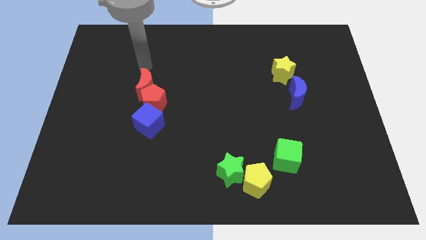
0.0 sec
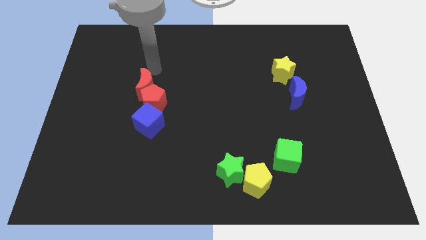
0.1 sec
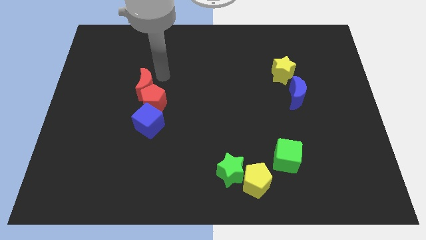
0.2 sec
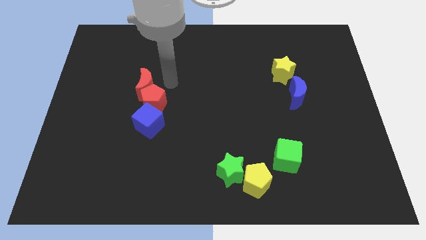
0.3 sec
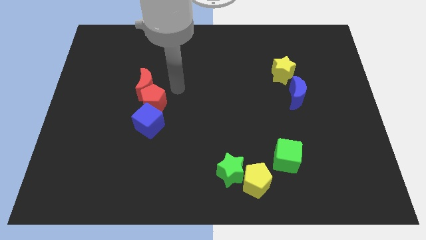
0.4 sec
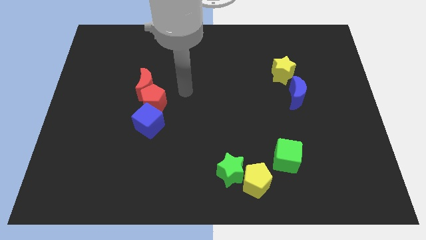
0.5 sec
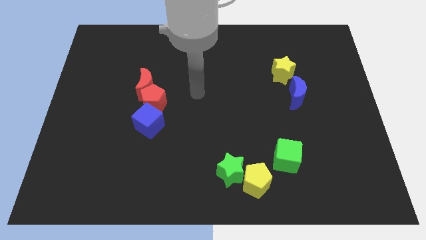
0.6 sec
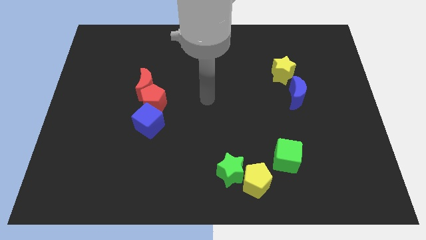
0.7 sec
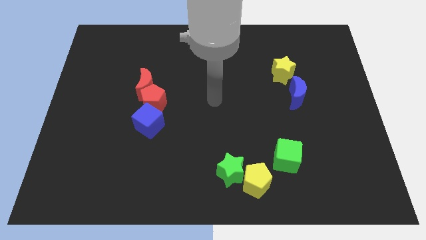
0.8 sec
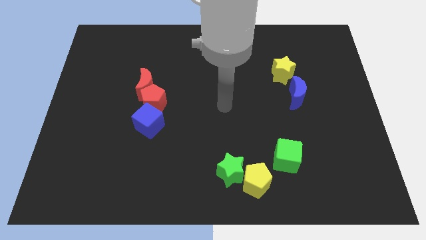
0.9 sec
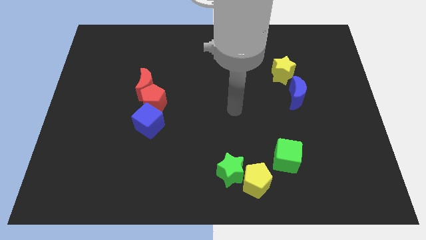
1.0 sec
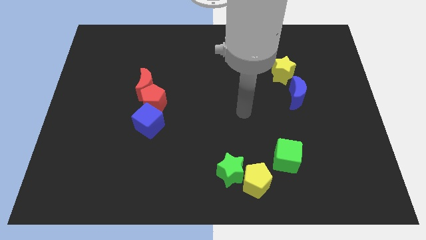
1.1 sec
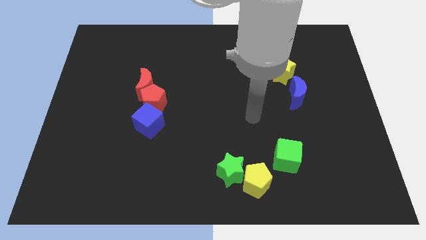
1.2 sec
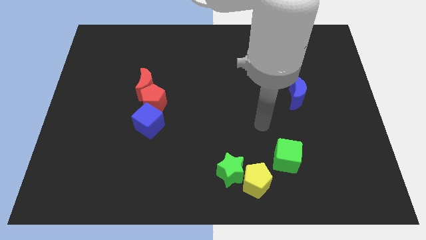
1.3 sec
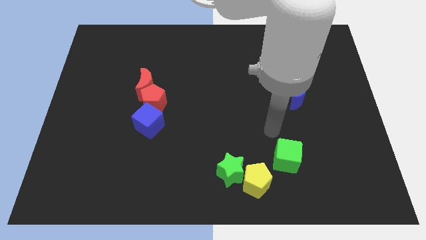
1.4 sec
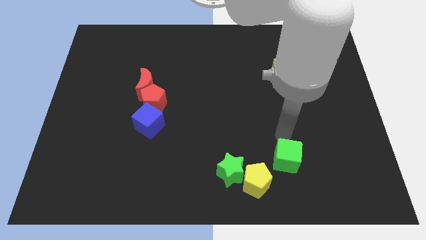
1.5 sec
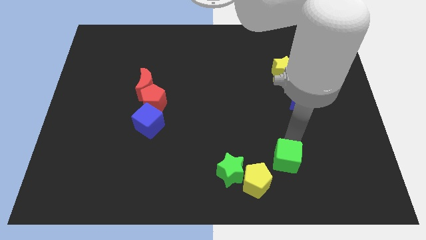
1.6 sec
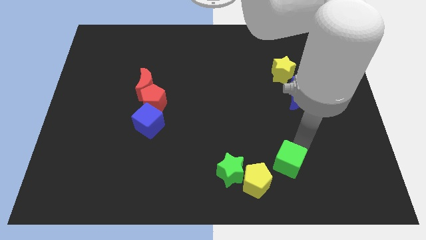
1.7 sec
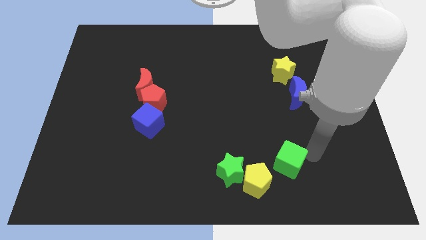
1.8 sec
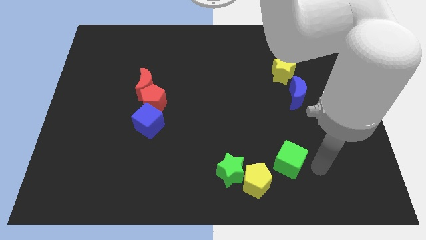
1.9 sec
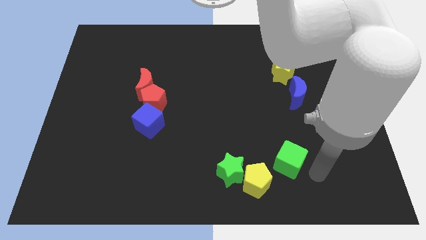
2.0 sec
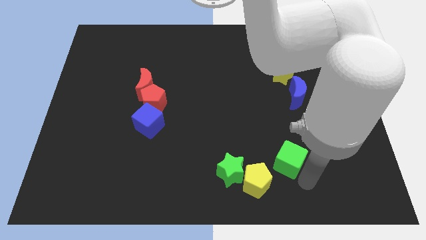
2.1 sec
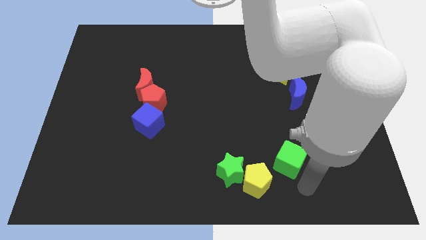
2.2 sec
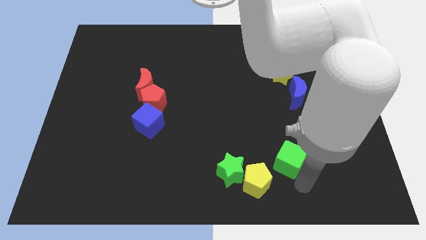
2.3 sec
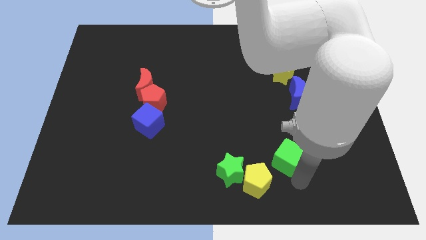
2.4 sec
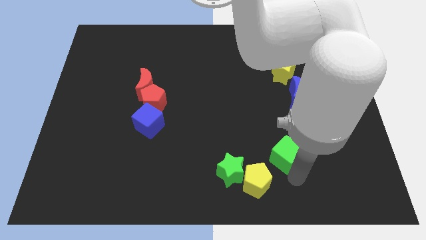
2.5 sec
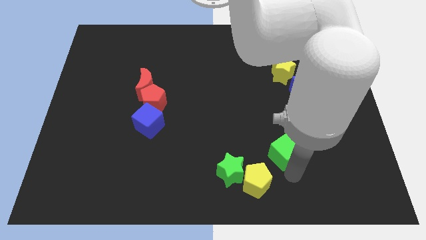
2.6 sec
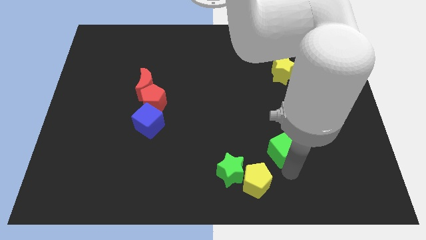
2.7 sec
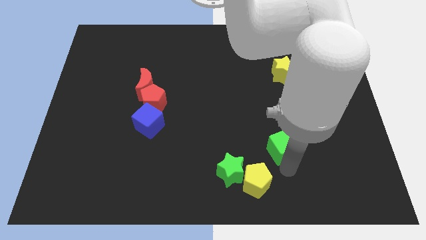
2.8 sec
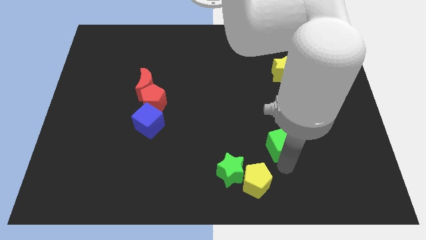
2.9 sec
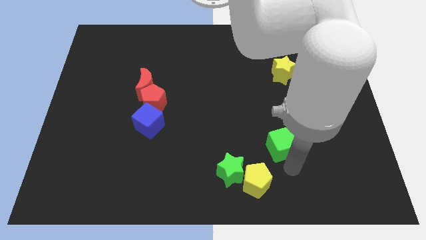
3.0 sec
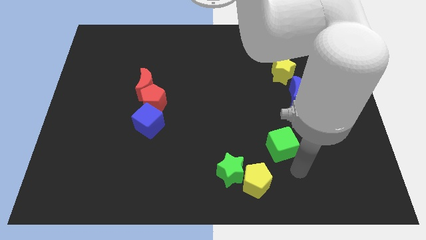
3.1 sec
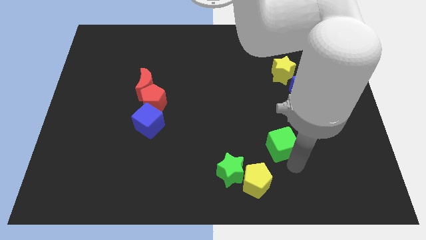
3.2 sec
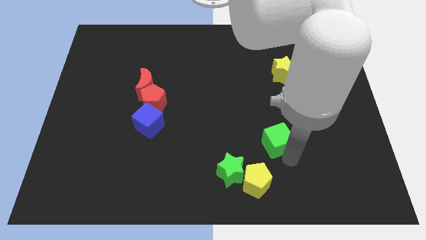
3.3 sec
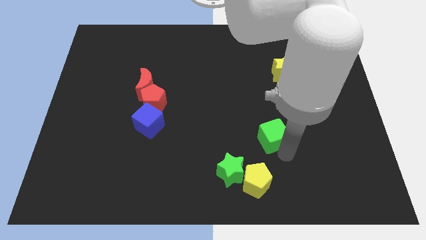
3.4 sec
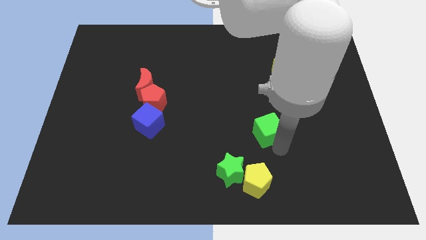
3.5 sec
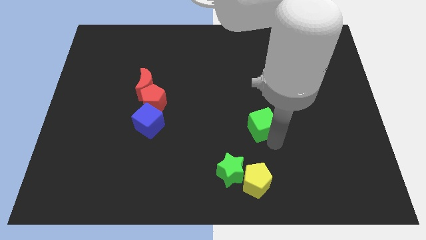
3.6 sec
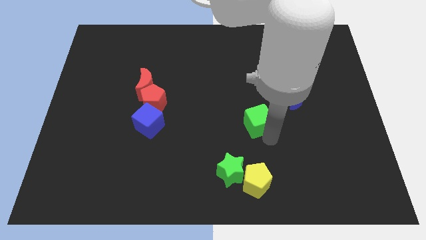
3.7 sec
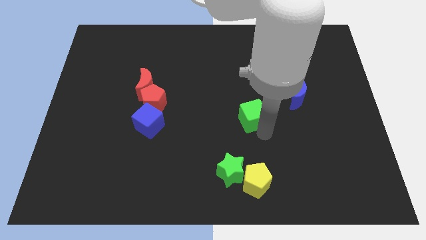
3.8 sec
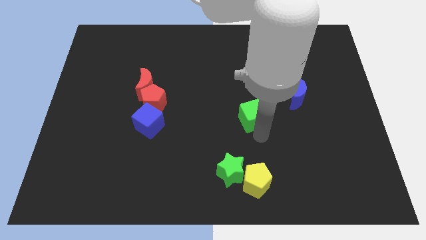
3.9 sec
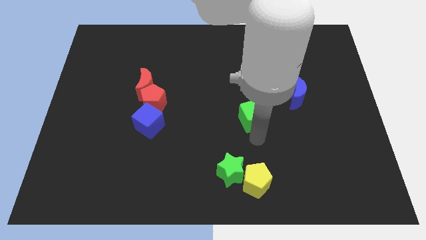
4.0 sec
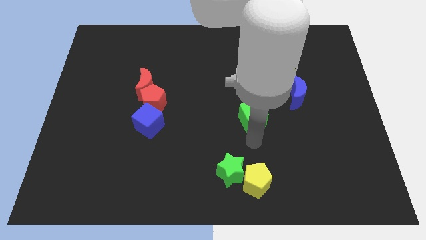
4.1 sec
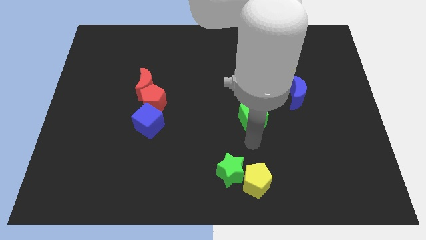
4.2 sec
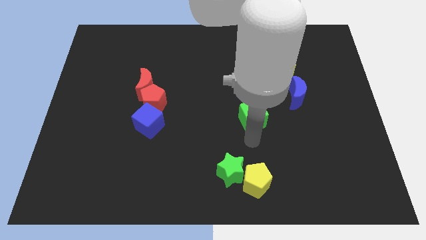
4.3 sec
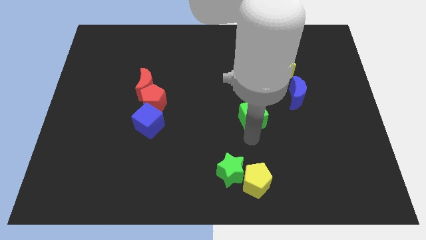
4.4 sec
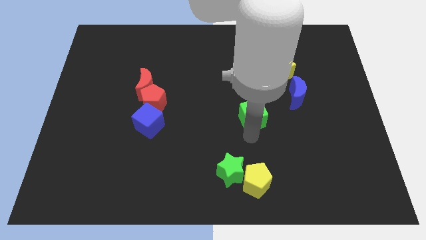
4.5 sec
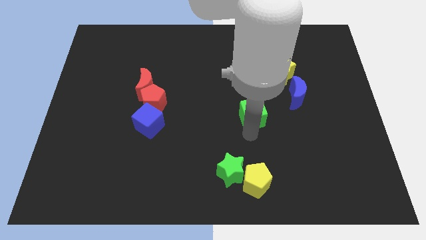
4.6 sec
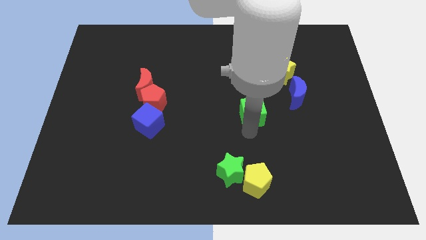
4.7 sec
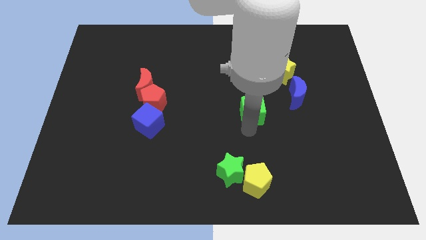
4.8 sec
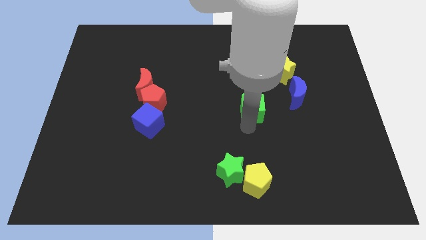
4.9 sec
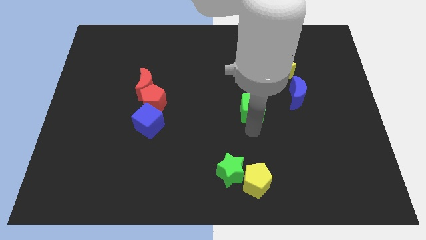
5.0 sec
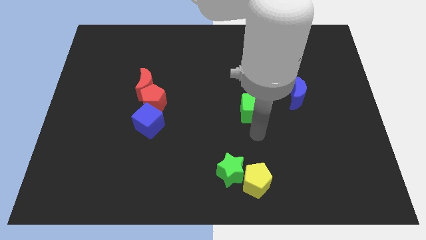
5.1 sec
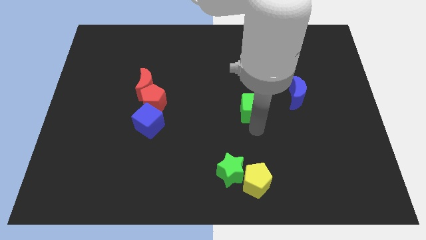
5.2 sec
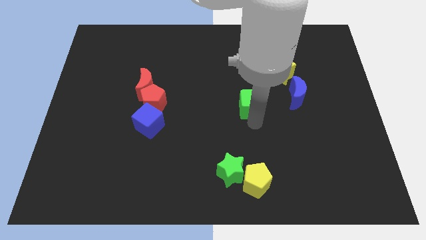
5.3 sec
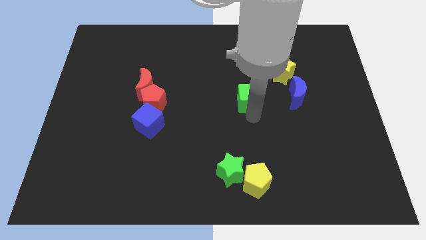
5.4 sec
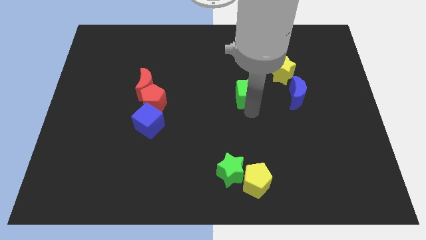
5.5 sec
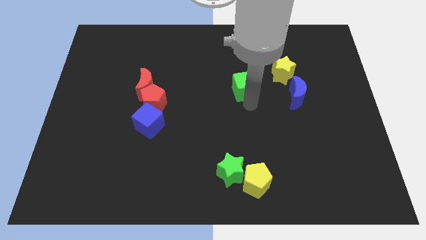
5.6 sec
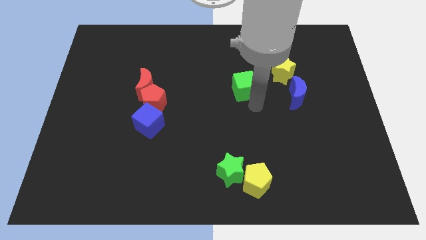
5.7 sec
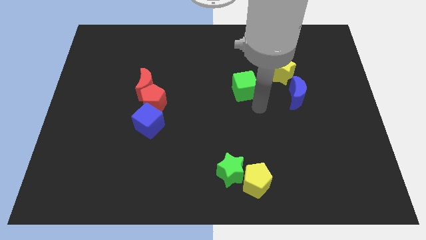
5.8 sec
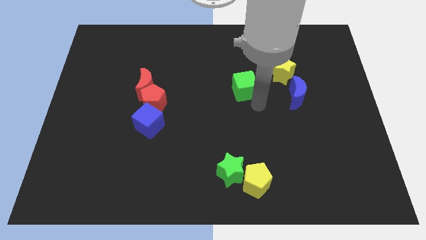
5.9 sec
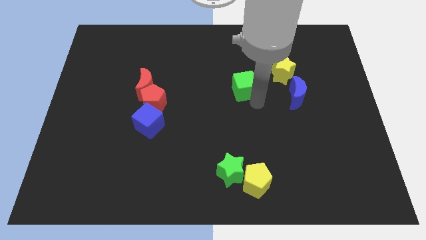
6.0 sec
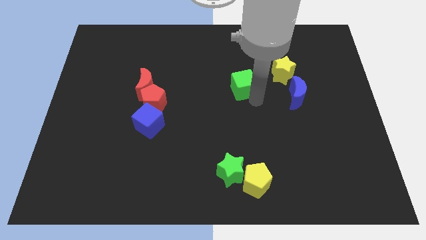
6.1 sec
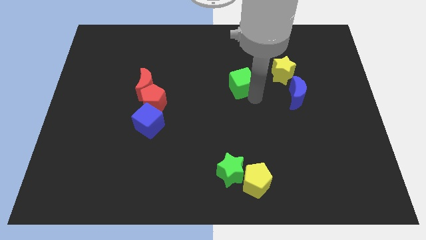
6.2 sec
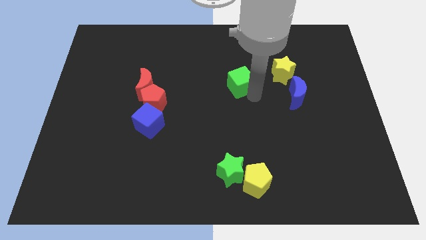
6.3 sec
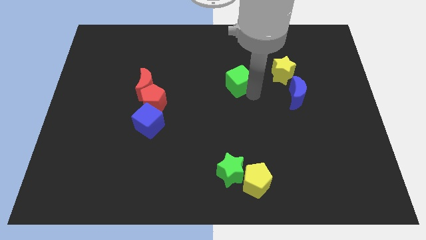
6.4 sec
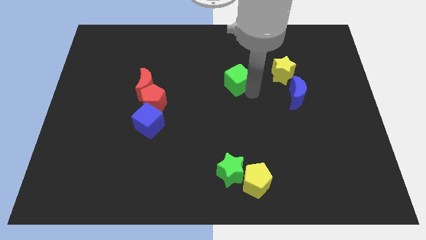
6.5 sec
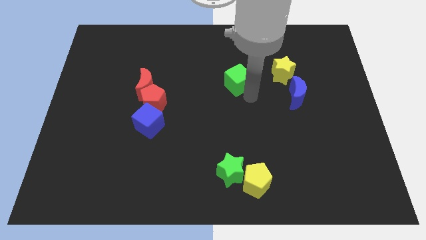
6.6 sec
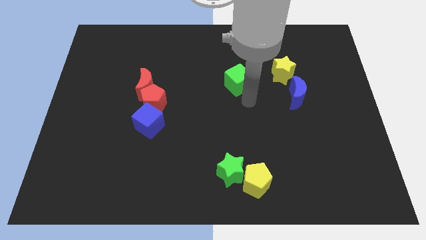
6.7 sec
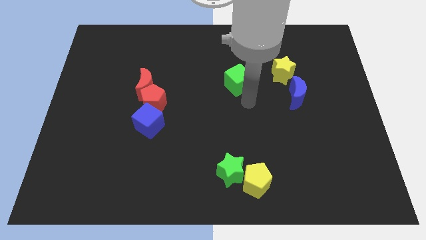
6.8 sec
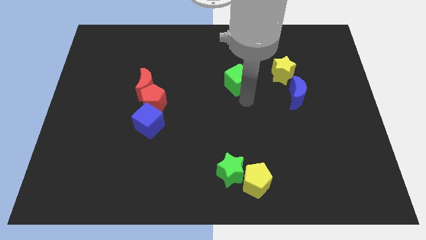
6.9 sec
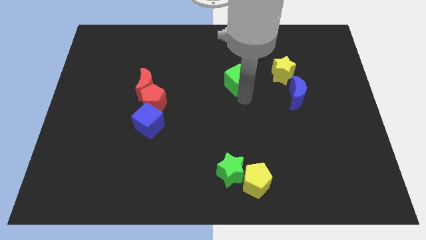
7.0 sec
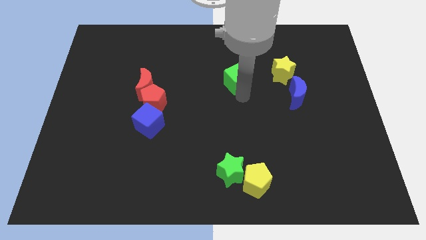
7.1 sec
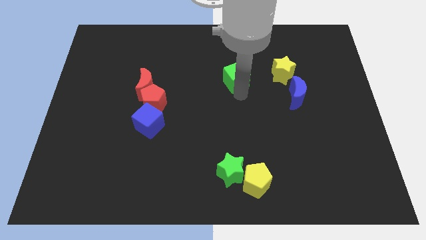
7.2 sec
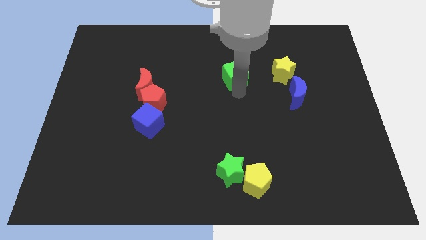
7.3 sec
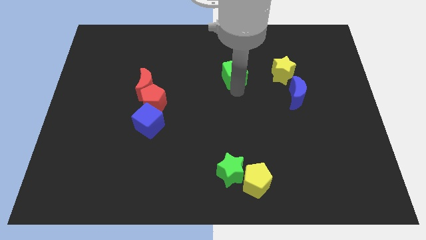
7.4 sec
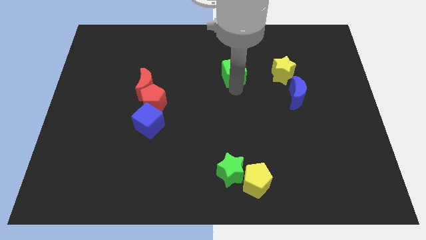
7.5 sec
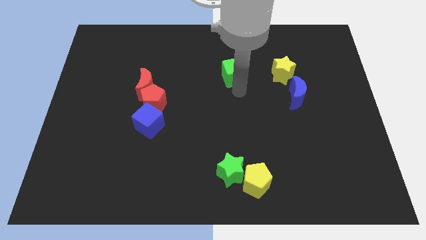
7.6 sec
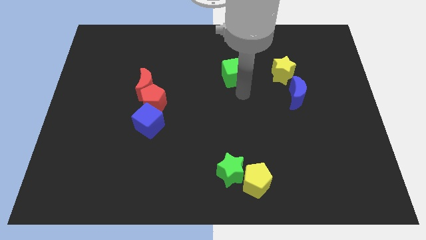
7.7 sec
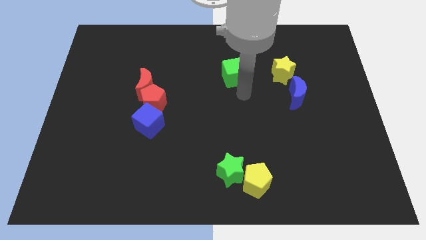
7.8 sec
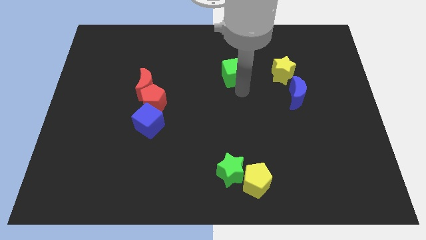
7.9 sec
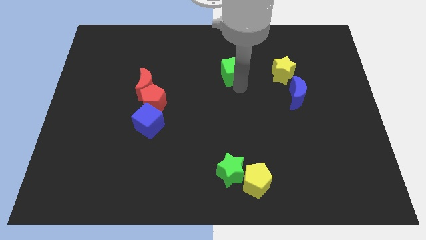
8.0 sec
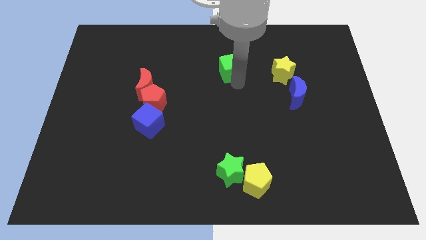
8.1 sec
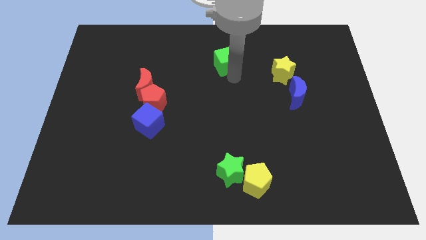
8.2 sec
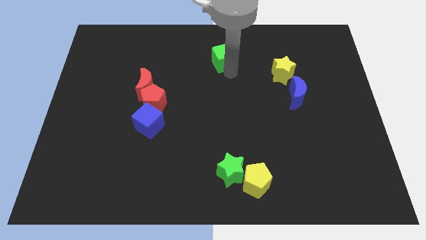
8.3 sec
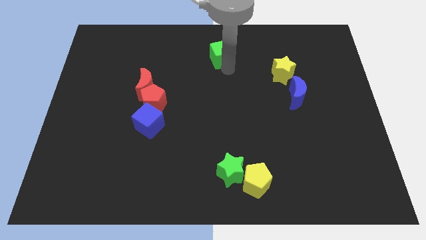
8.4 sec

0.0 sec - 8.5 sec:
push the green cube to the top
